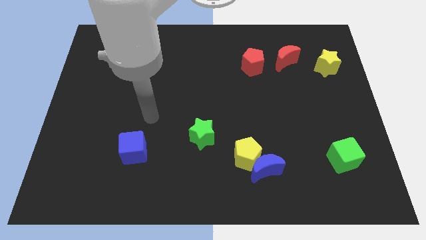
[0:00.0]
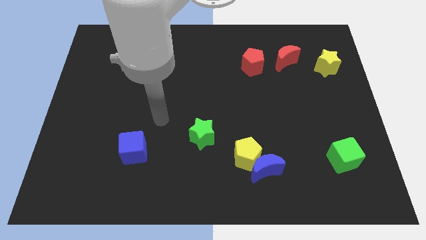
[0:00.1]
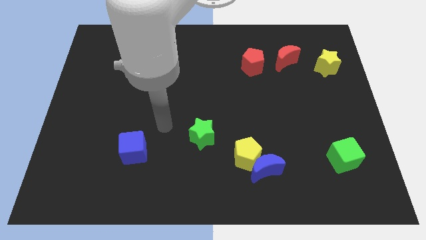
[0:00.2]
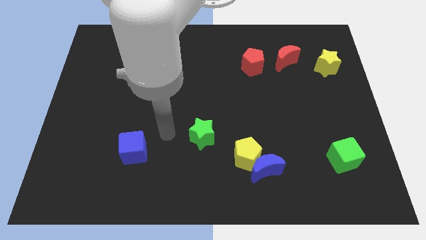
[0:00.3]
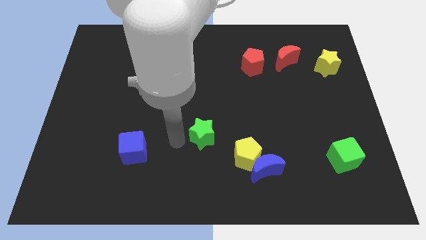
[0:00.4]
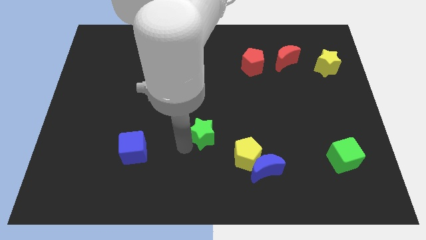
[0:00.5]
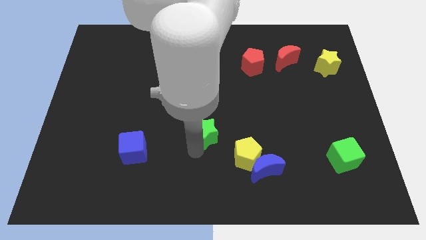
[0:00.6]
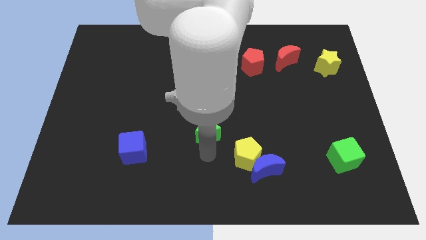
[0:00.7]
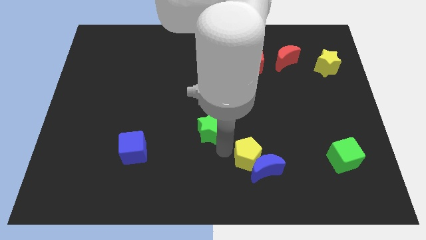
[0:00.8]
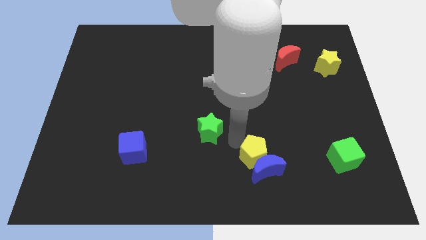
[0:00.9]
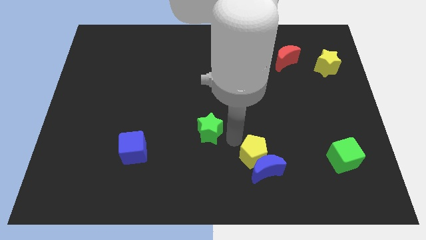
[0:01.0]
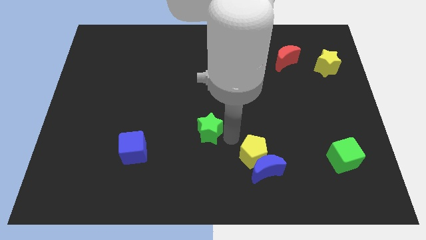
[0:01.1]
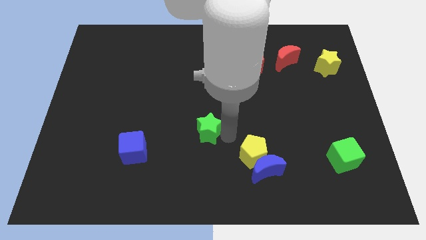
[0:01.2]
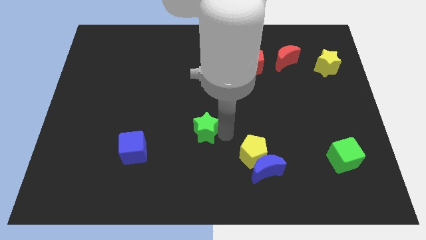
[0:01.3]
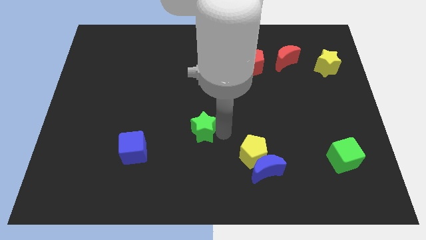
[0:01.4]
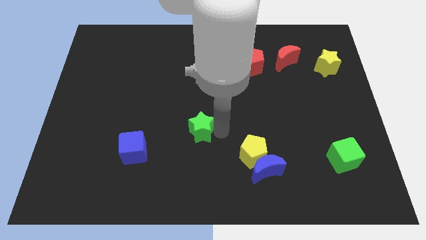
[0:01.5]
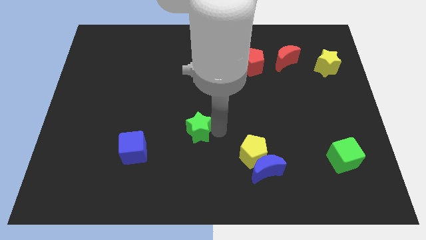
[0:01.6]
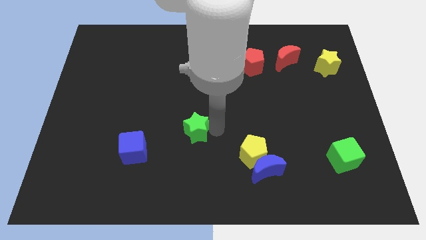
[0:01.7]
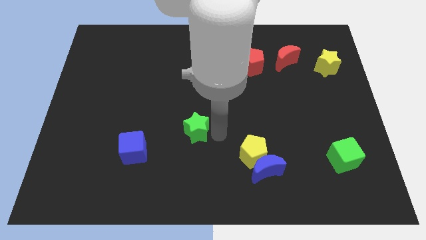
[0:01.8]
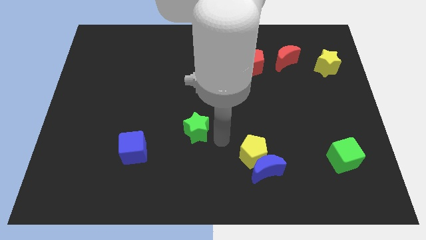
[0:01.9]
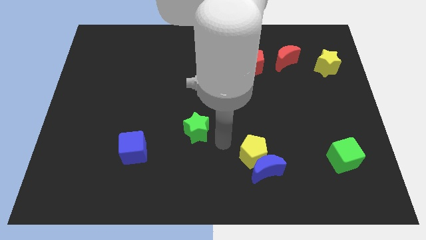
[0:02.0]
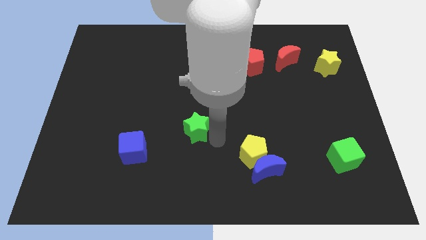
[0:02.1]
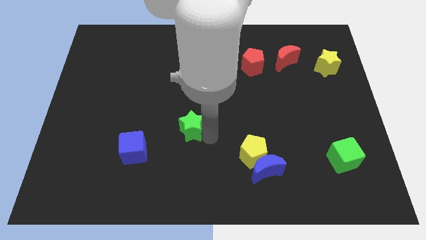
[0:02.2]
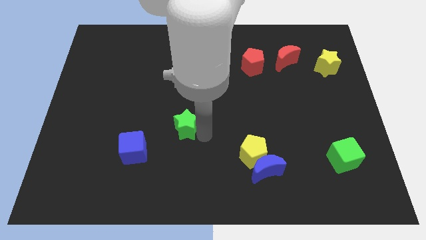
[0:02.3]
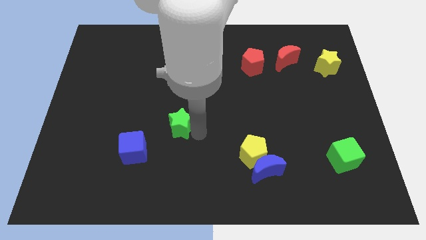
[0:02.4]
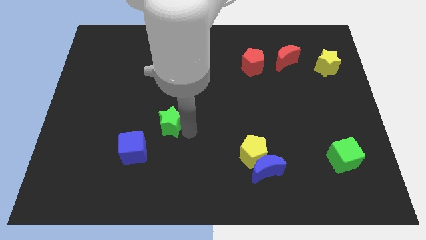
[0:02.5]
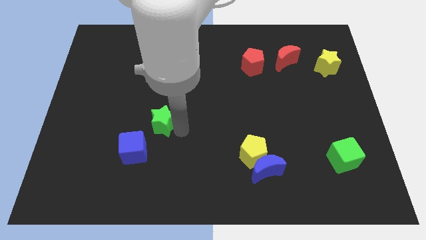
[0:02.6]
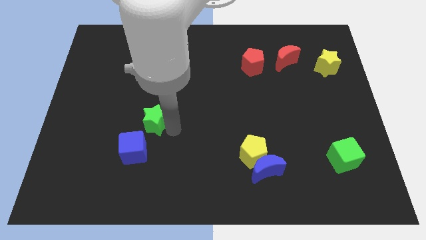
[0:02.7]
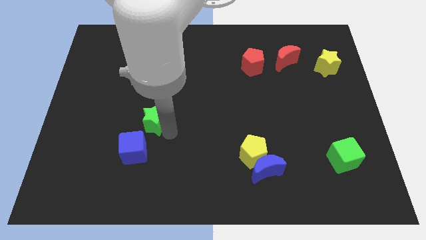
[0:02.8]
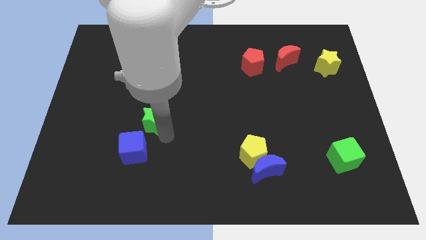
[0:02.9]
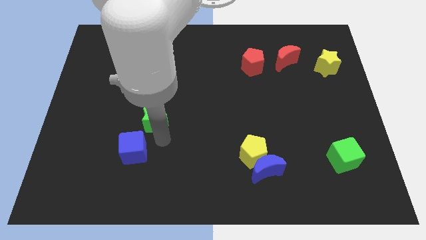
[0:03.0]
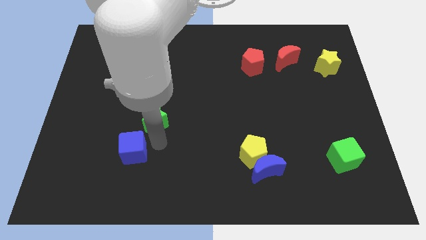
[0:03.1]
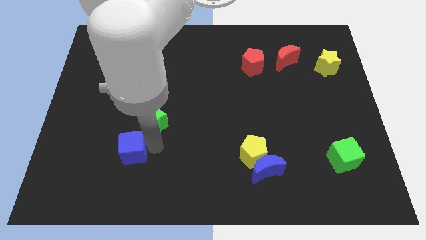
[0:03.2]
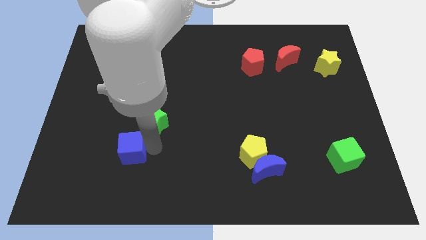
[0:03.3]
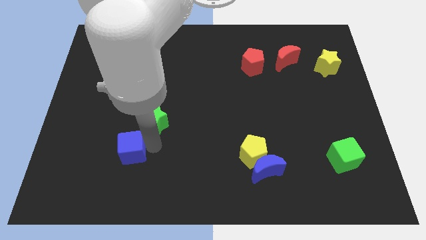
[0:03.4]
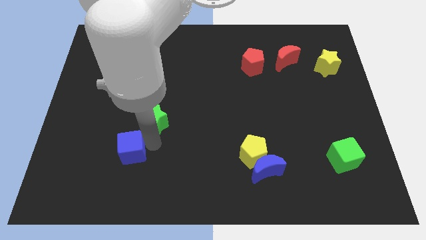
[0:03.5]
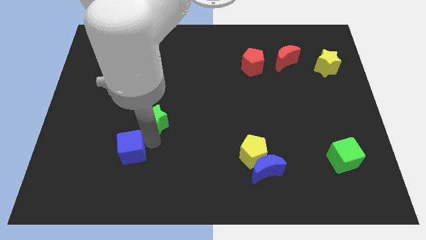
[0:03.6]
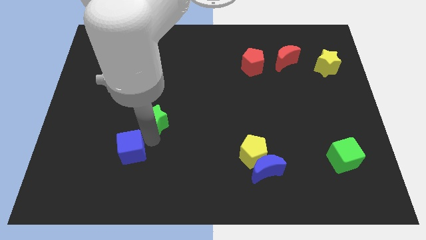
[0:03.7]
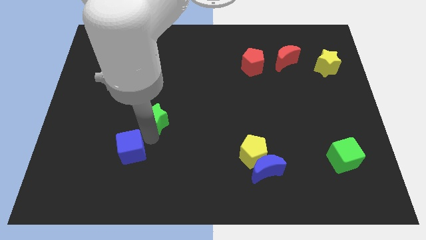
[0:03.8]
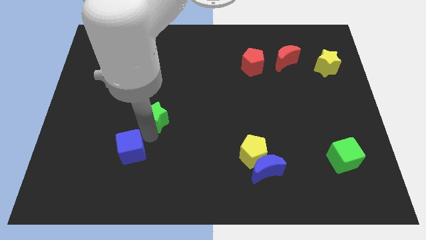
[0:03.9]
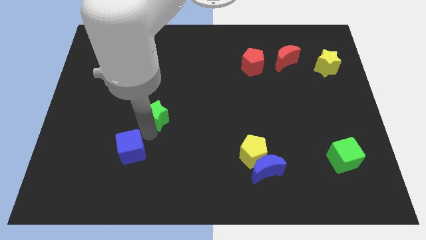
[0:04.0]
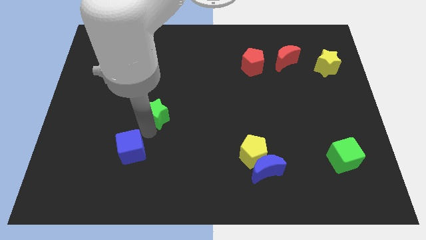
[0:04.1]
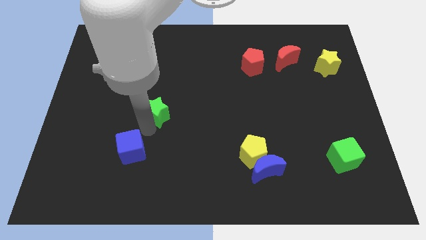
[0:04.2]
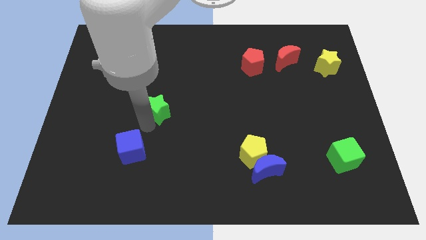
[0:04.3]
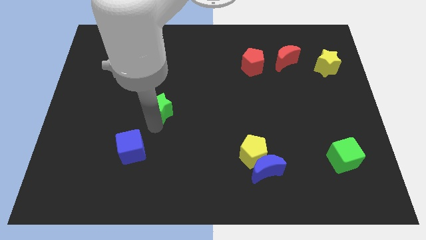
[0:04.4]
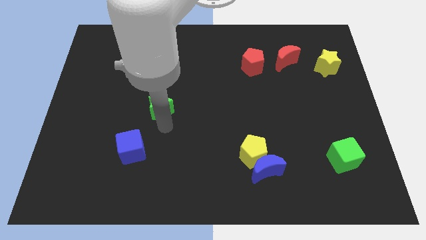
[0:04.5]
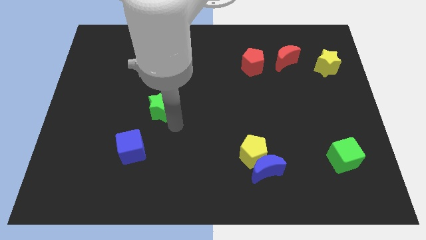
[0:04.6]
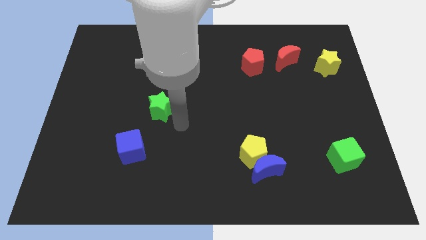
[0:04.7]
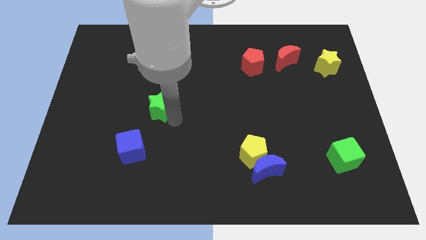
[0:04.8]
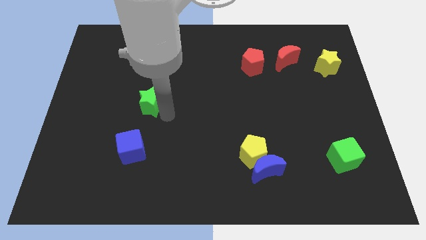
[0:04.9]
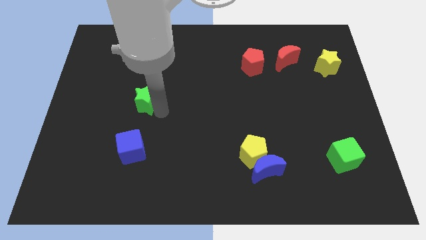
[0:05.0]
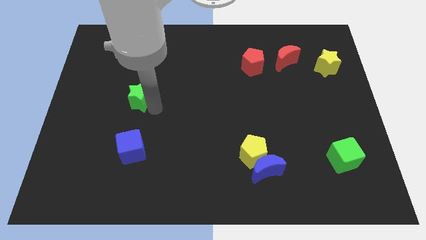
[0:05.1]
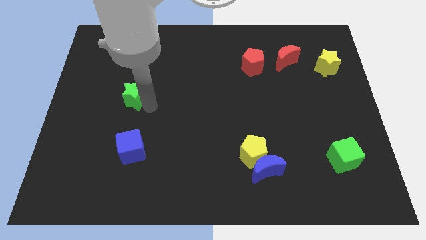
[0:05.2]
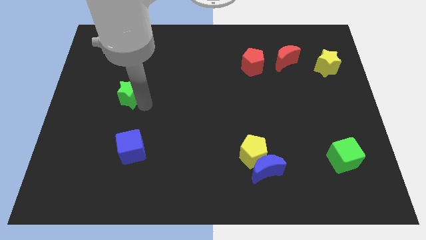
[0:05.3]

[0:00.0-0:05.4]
slide the green star upwards and then to the left

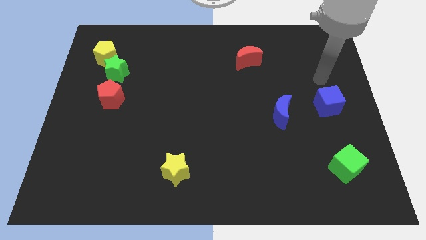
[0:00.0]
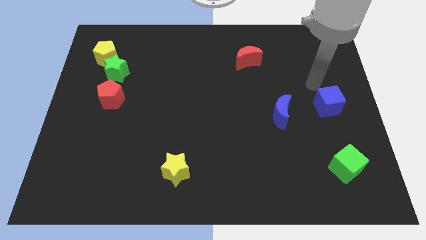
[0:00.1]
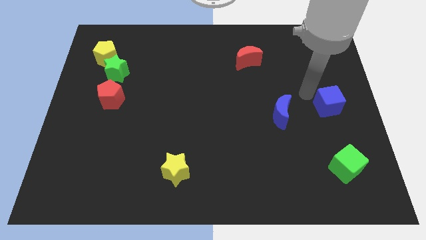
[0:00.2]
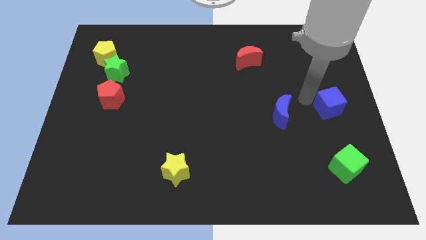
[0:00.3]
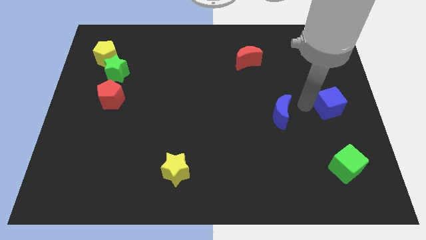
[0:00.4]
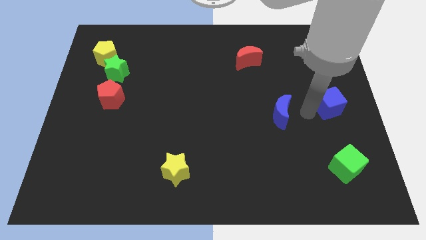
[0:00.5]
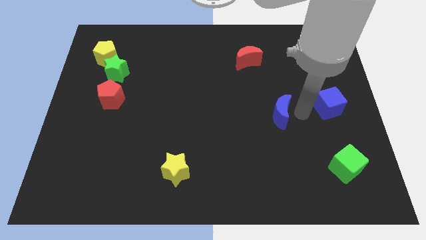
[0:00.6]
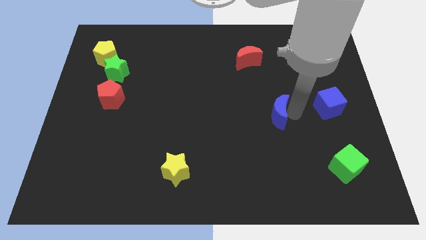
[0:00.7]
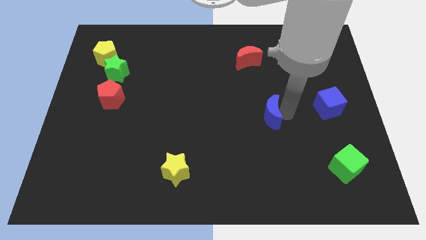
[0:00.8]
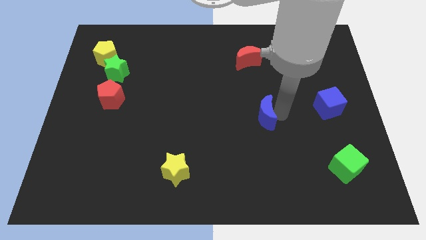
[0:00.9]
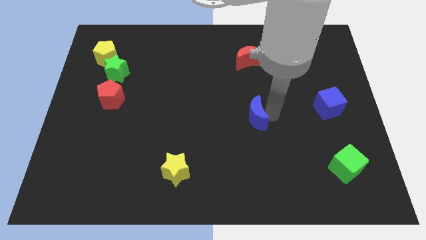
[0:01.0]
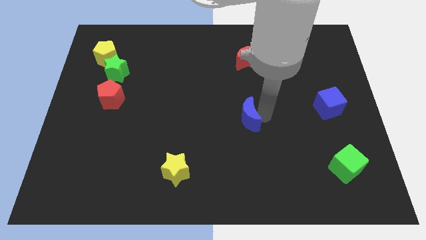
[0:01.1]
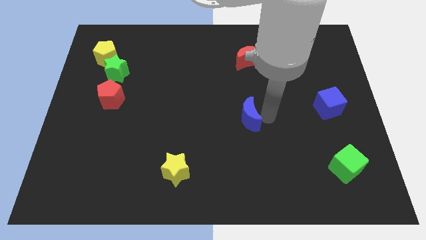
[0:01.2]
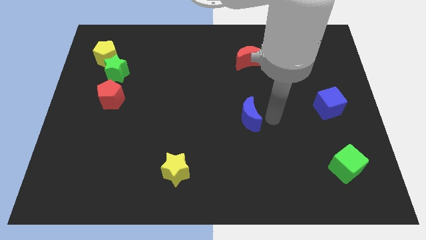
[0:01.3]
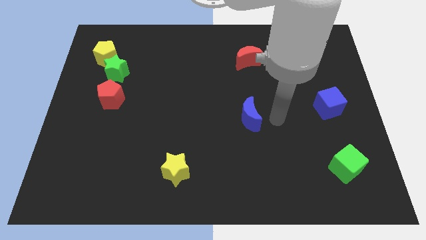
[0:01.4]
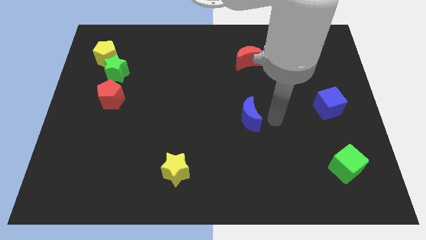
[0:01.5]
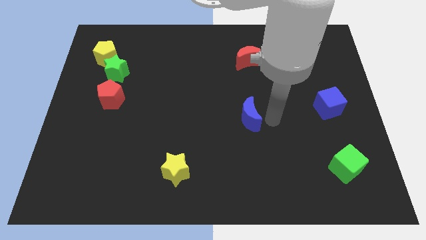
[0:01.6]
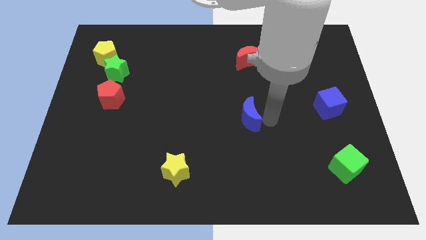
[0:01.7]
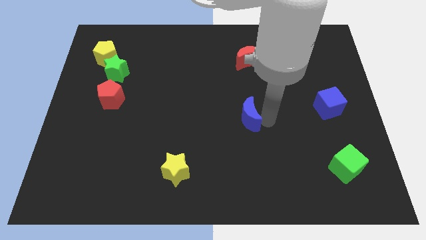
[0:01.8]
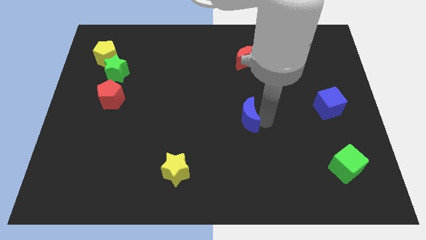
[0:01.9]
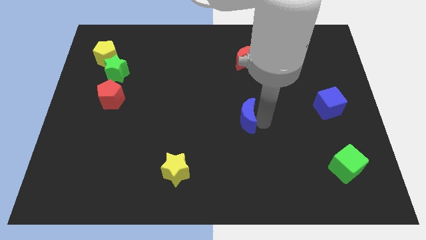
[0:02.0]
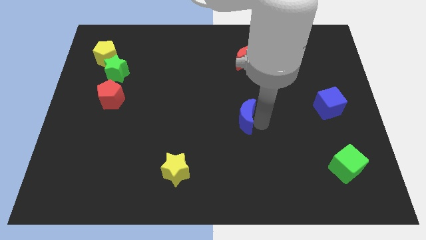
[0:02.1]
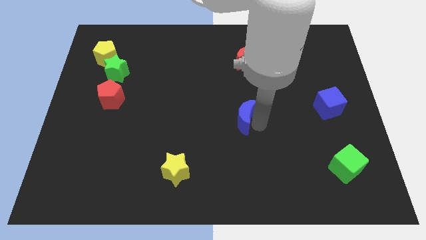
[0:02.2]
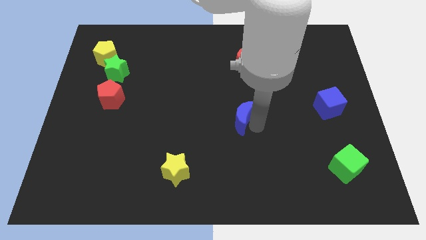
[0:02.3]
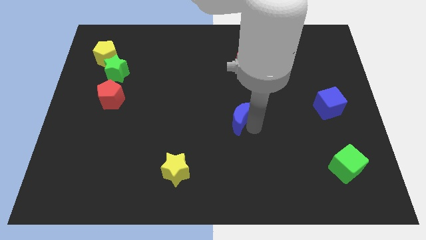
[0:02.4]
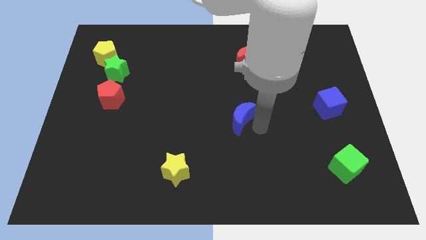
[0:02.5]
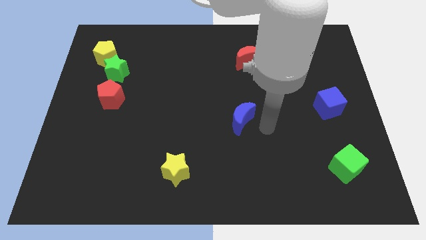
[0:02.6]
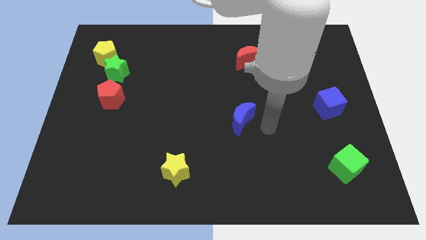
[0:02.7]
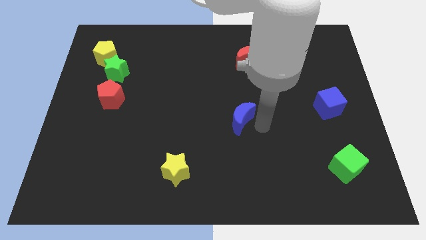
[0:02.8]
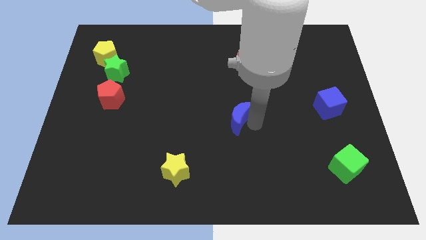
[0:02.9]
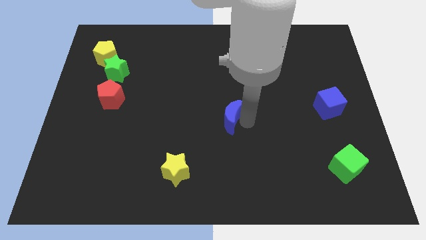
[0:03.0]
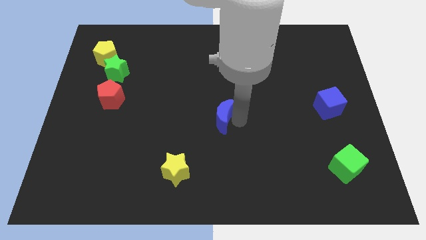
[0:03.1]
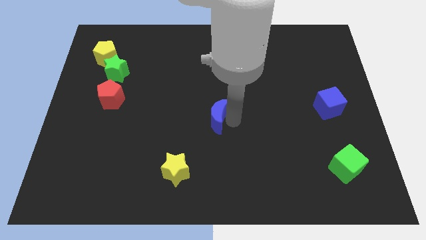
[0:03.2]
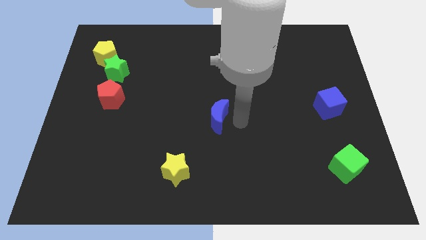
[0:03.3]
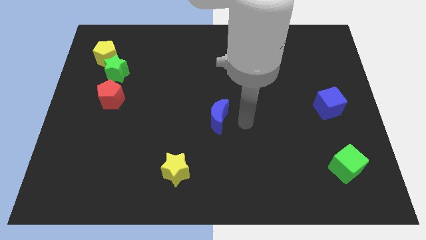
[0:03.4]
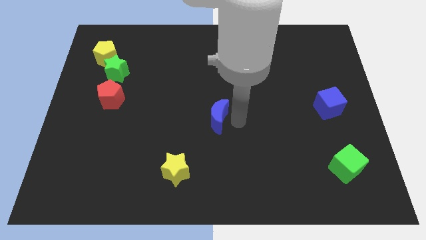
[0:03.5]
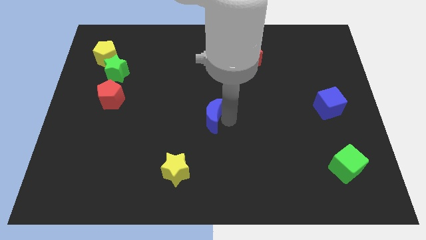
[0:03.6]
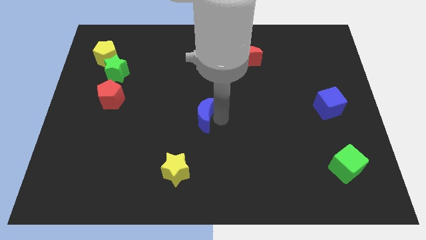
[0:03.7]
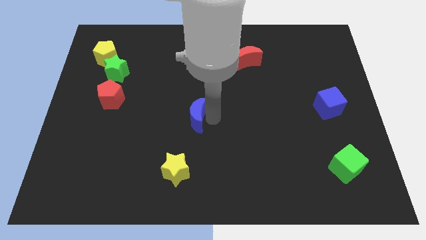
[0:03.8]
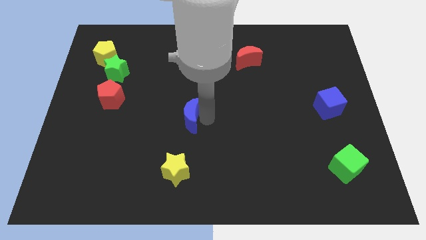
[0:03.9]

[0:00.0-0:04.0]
move the blue moon left
